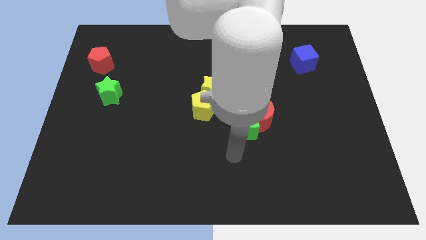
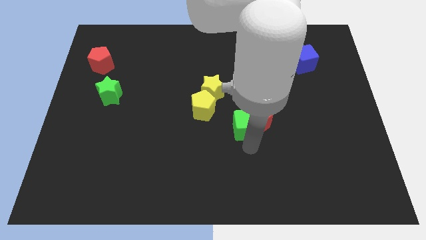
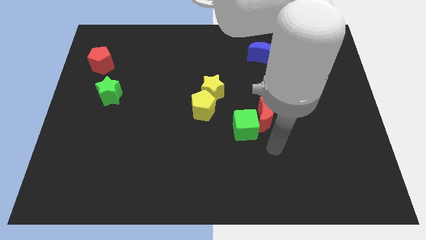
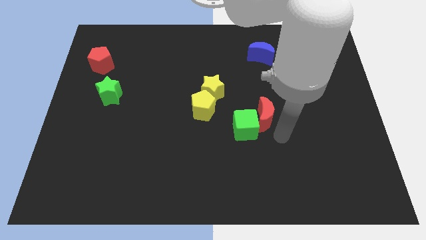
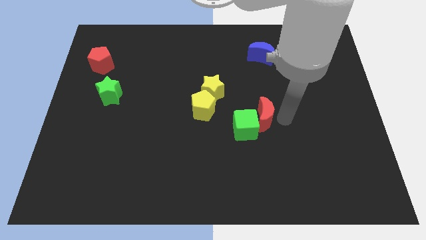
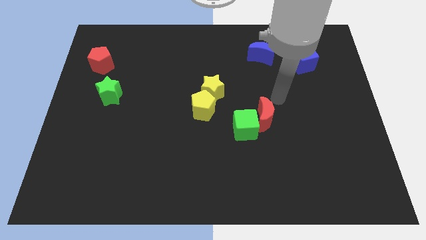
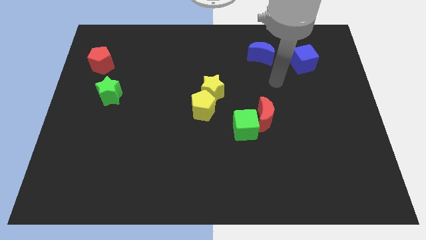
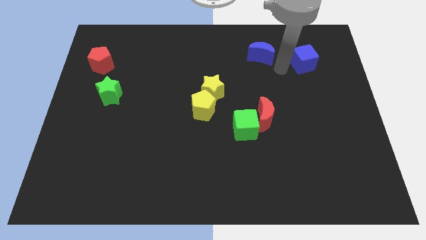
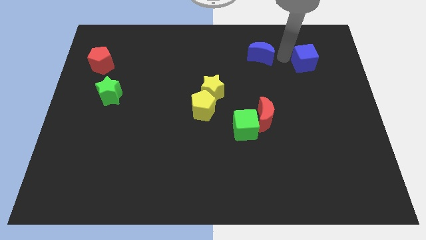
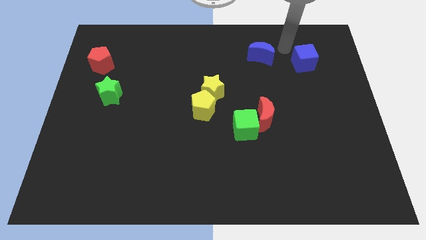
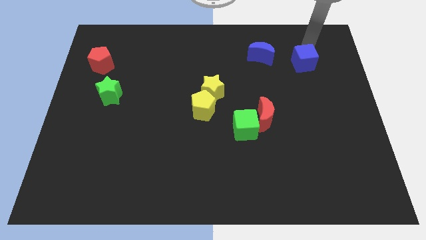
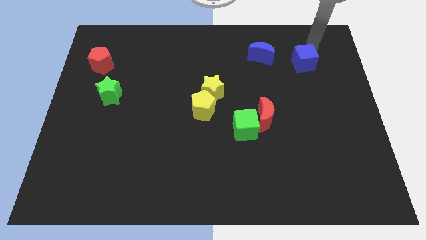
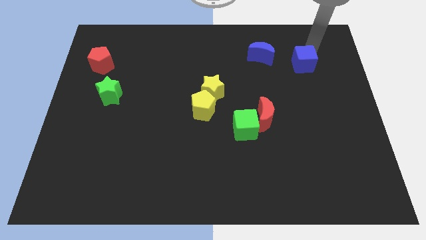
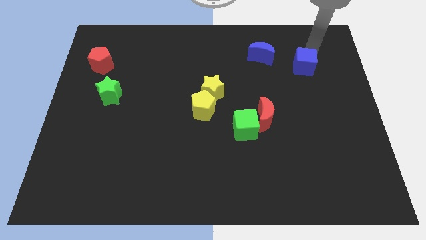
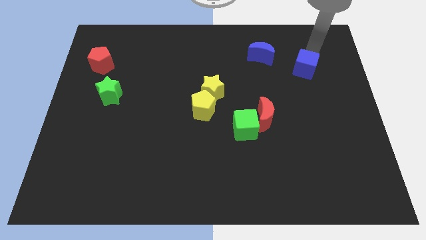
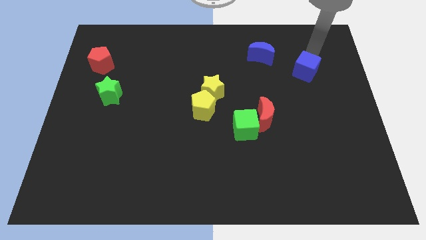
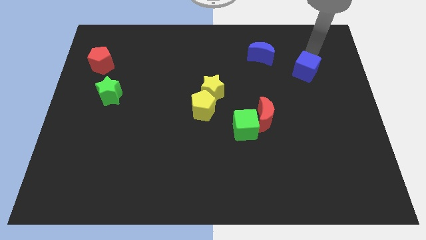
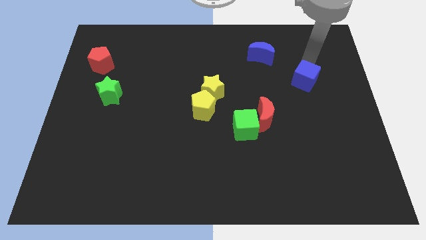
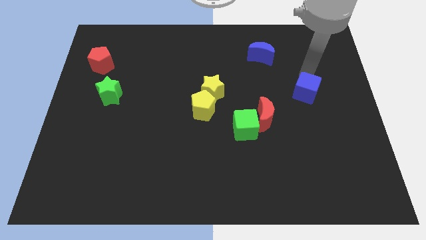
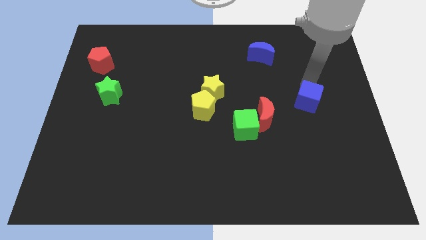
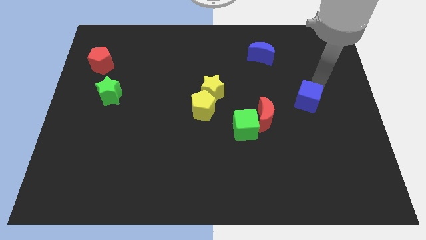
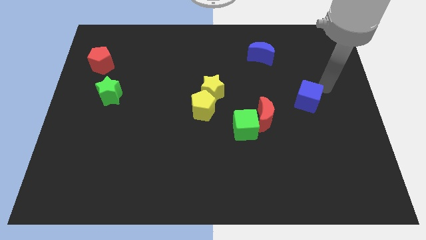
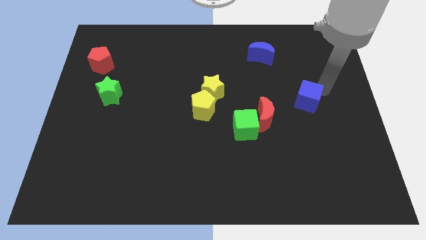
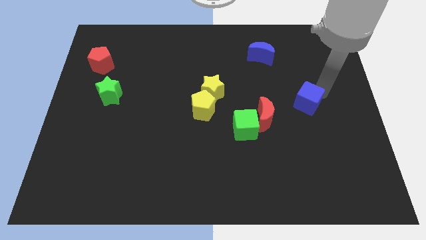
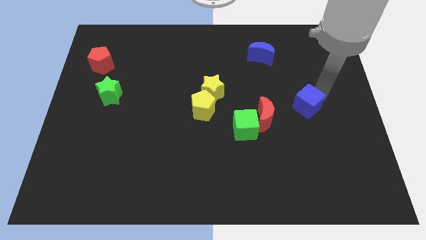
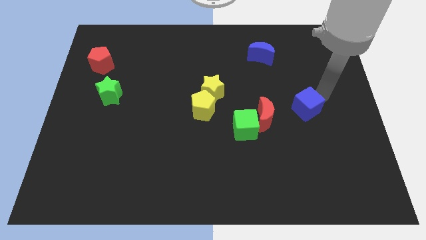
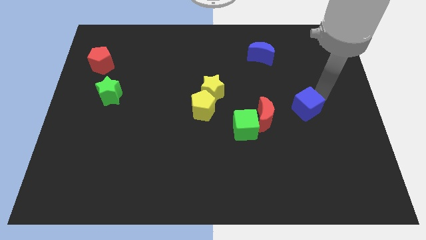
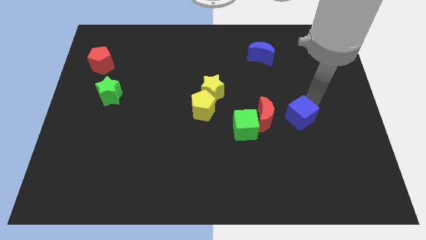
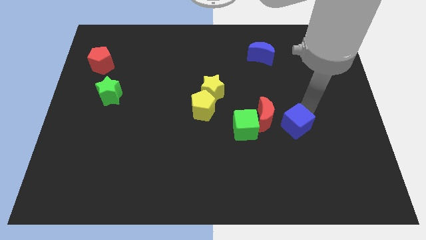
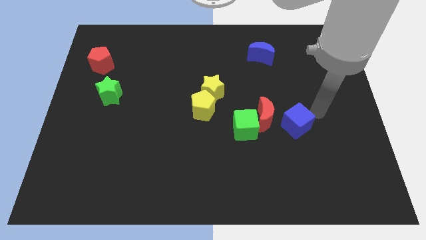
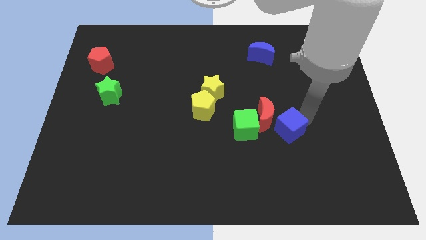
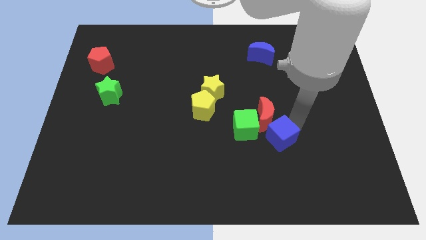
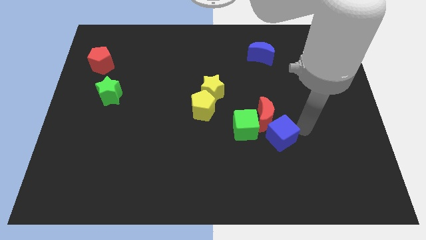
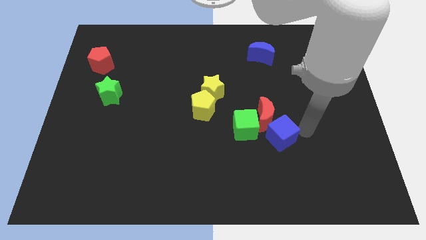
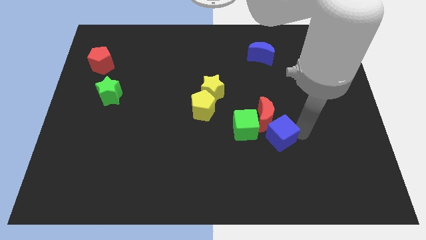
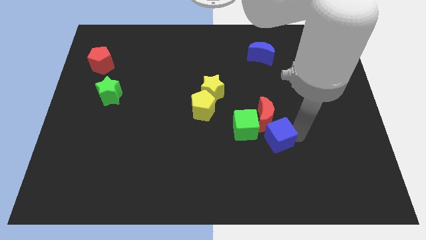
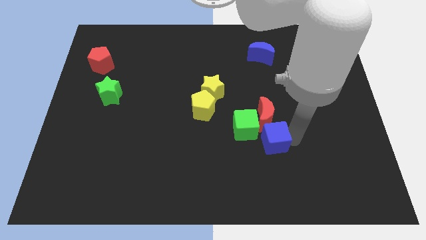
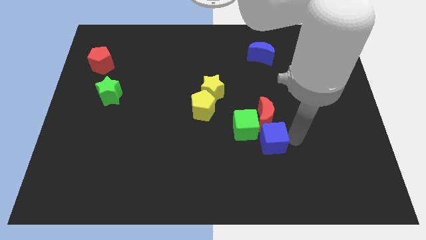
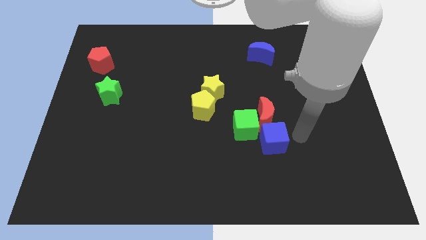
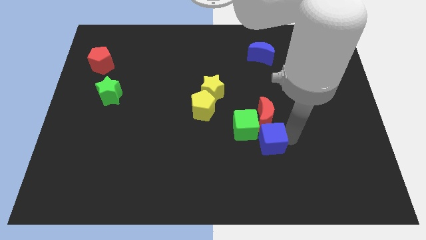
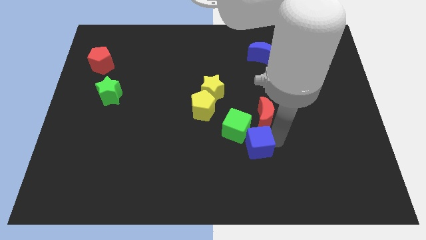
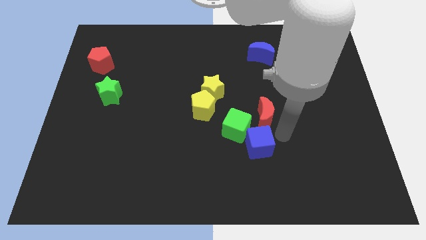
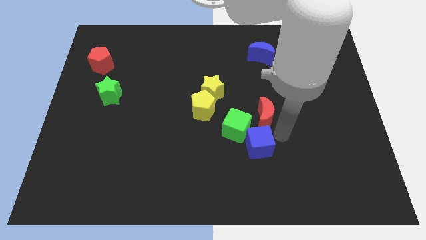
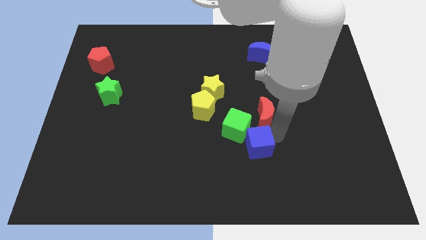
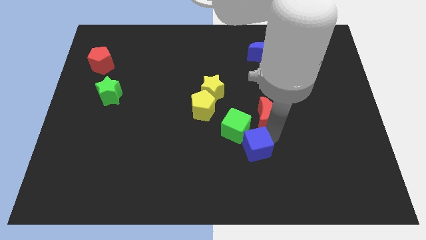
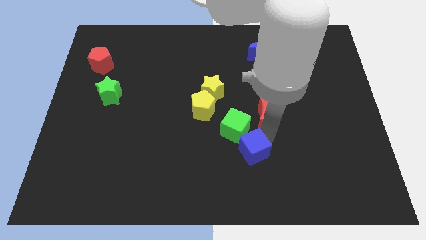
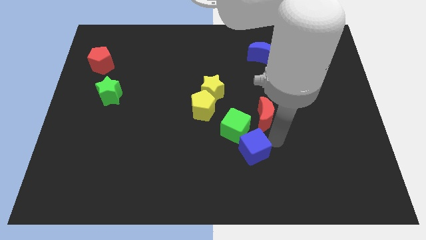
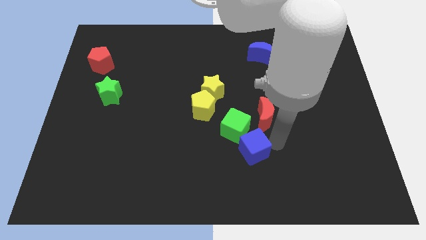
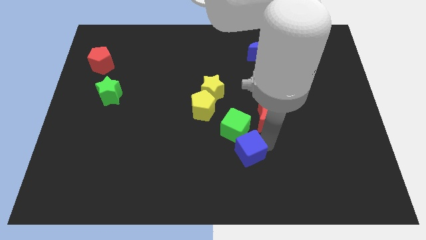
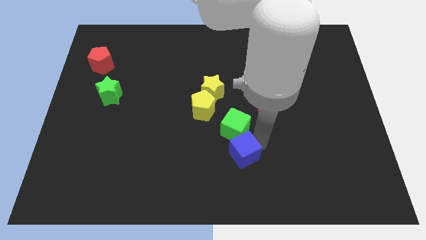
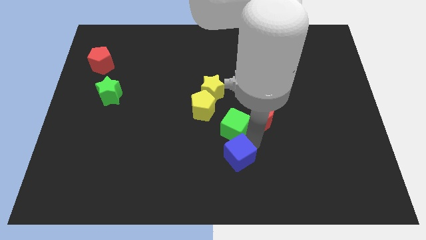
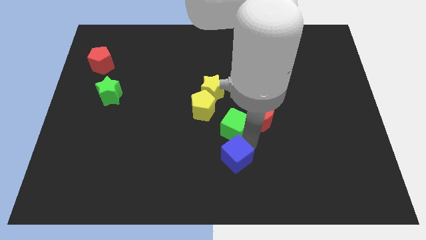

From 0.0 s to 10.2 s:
put the blue cube to the bottom

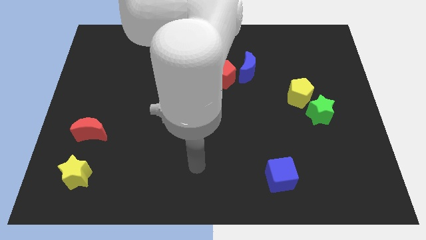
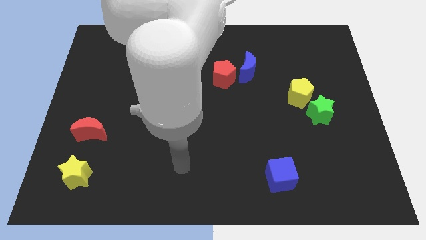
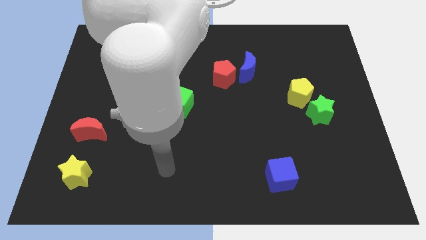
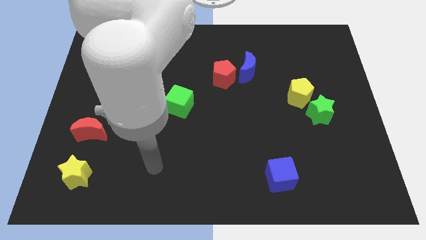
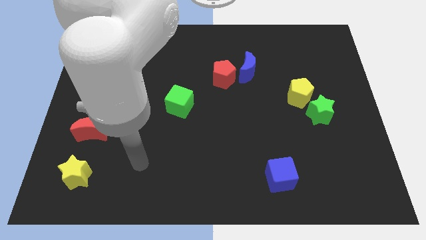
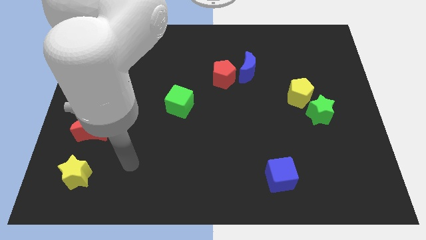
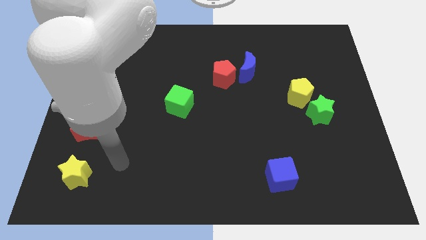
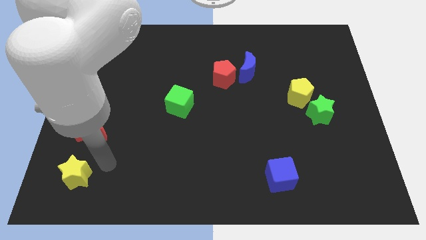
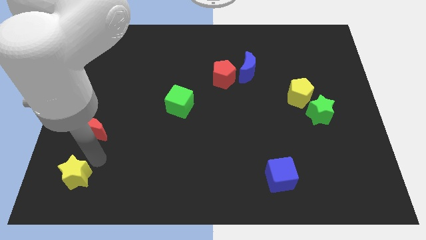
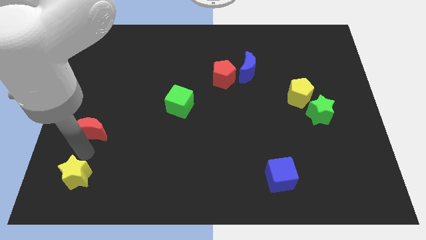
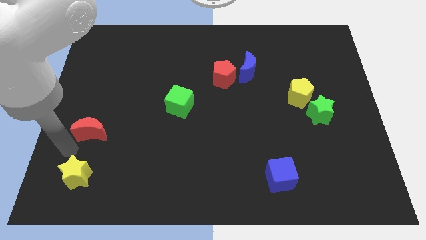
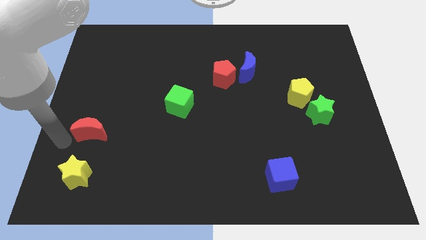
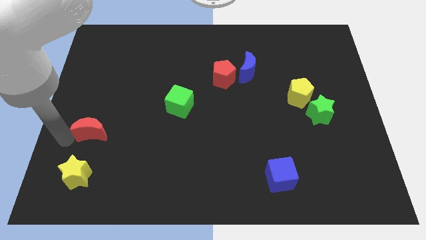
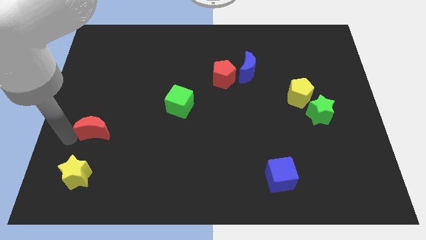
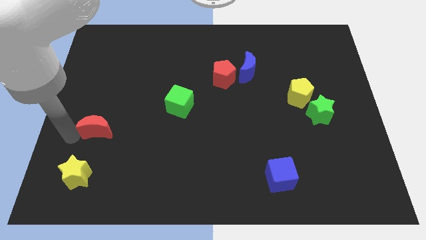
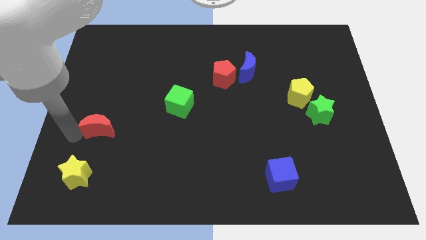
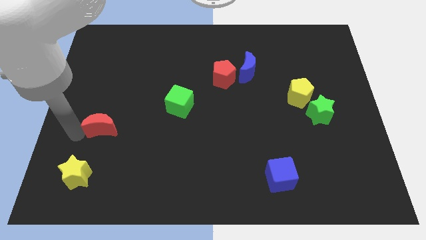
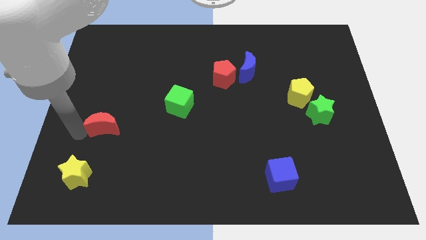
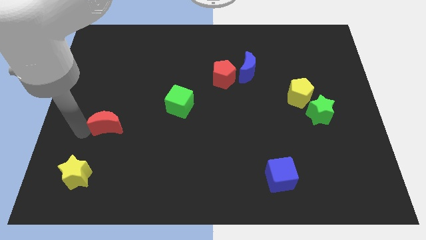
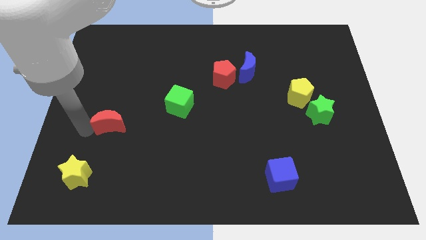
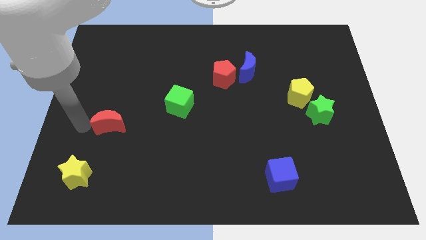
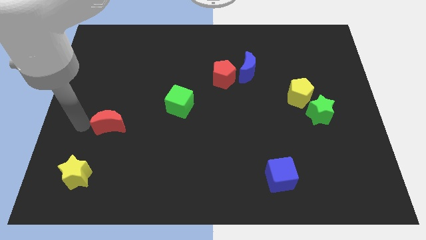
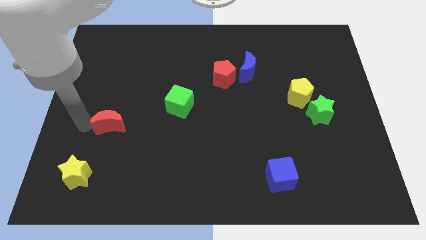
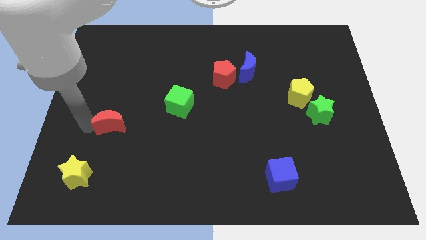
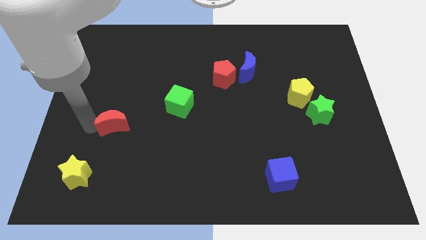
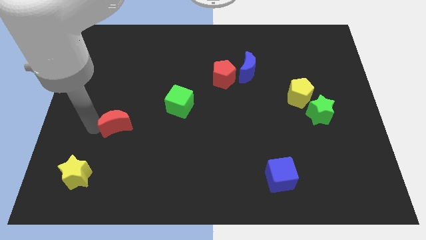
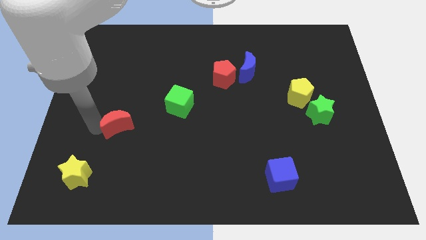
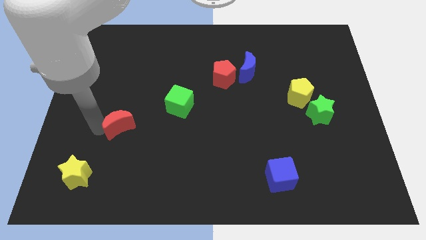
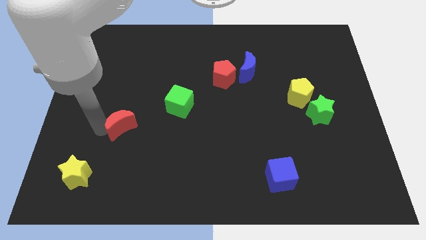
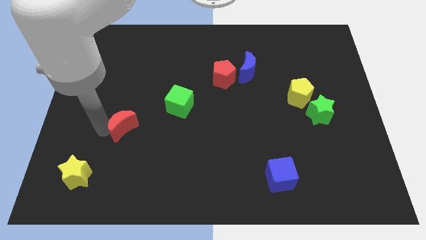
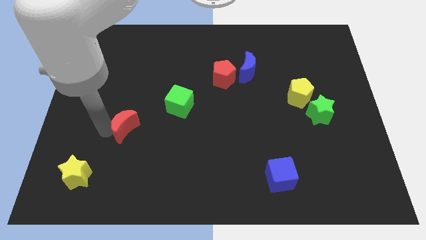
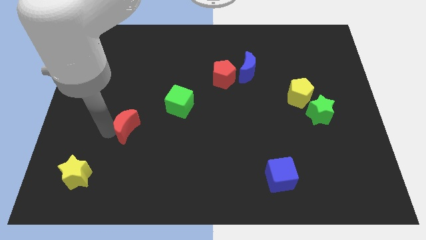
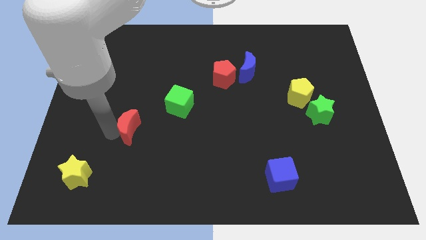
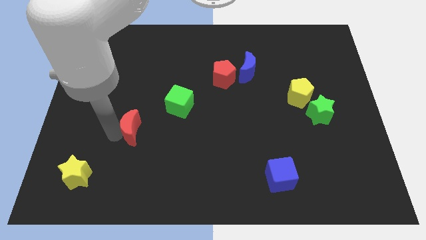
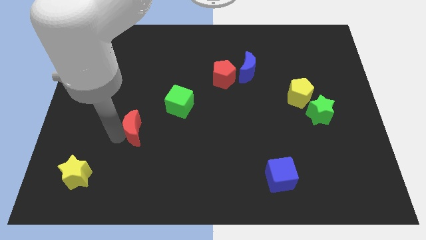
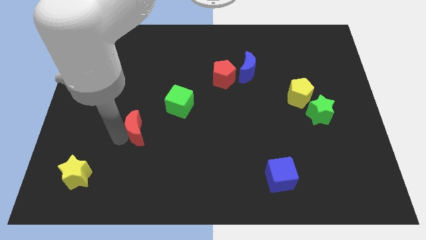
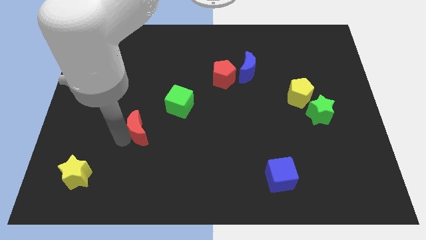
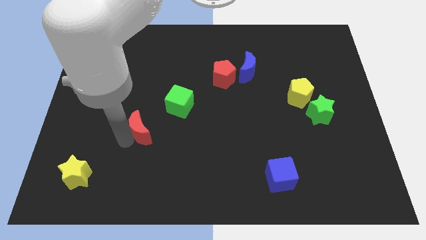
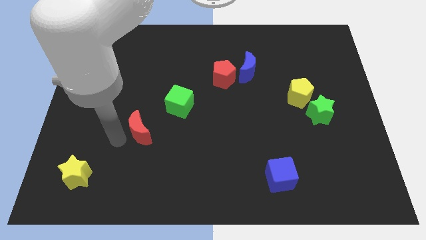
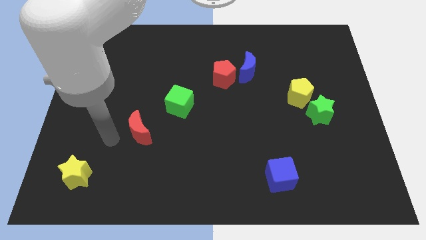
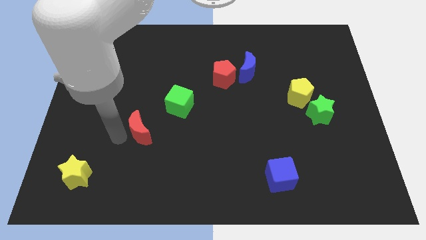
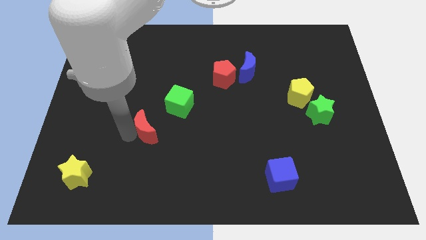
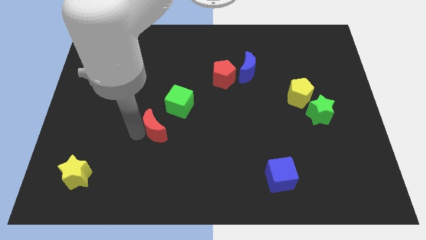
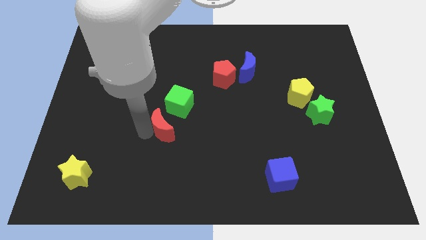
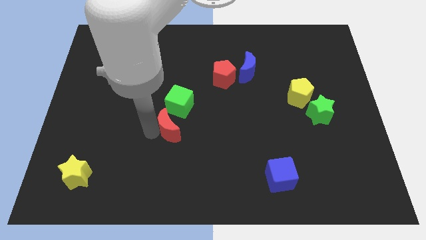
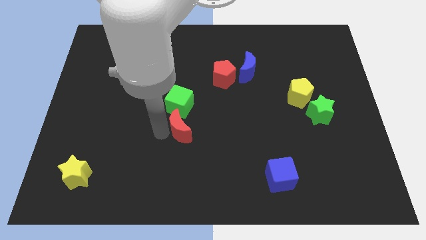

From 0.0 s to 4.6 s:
move the red moon to the middle
